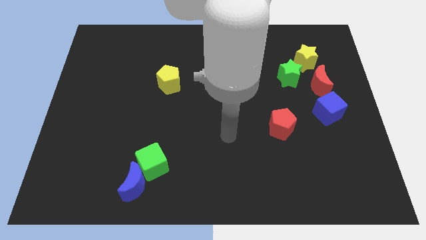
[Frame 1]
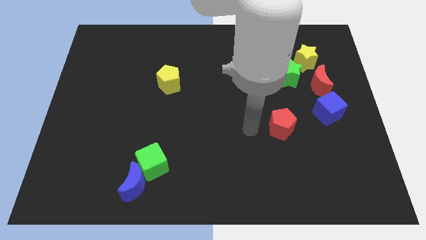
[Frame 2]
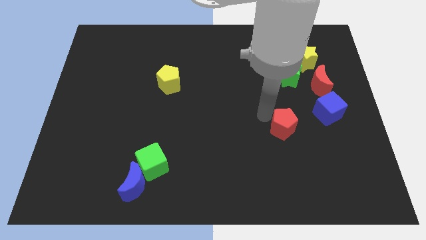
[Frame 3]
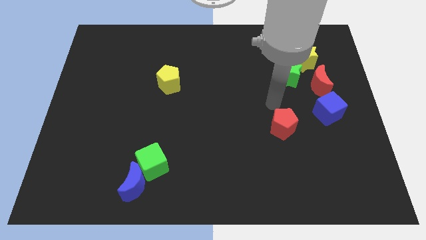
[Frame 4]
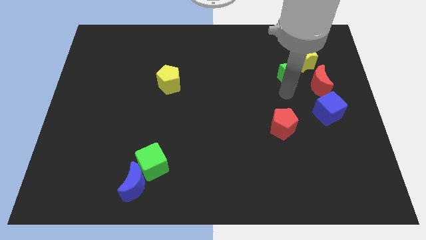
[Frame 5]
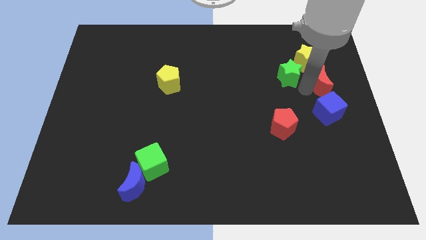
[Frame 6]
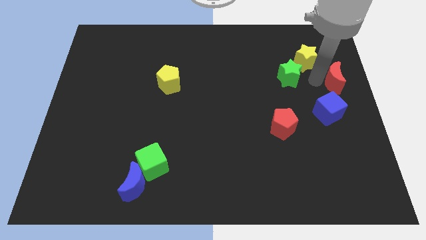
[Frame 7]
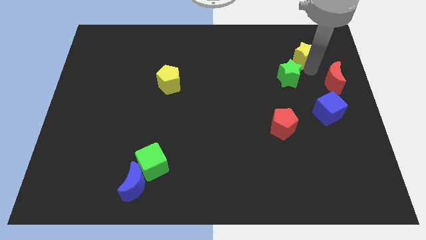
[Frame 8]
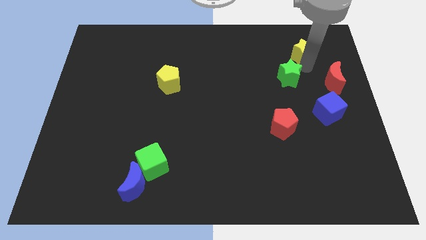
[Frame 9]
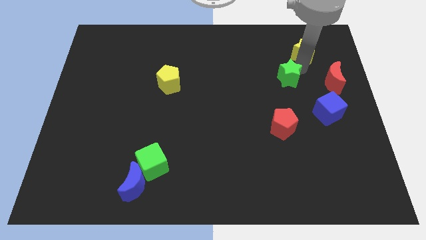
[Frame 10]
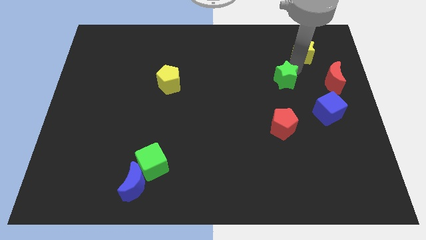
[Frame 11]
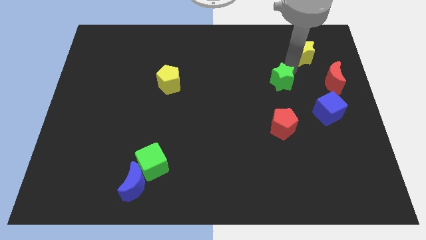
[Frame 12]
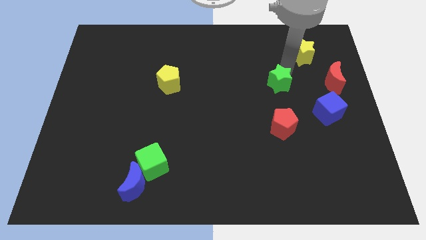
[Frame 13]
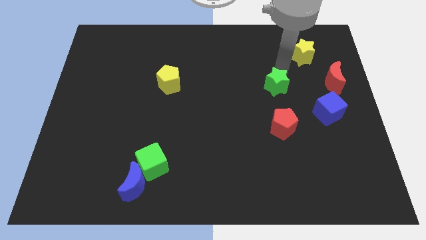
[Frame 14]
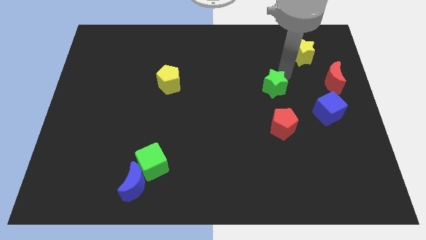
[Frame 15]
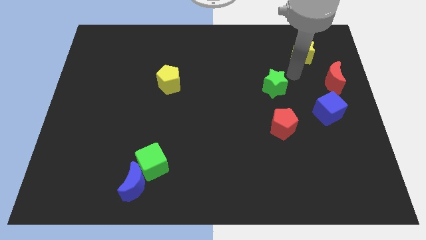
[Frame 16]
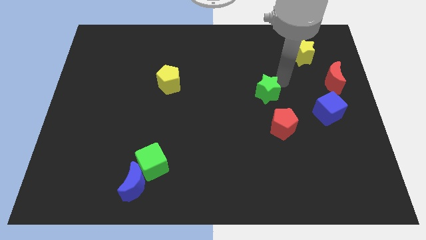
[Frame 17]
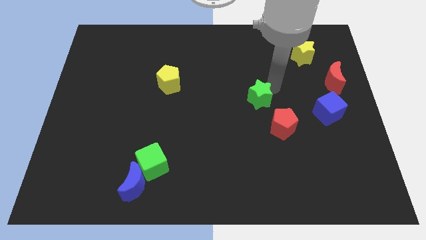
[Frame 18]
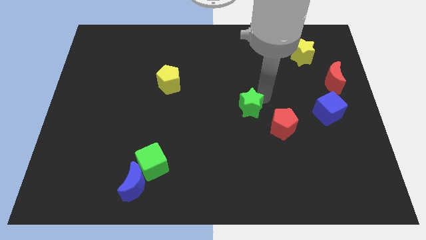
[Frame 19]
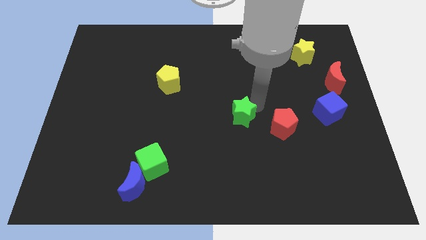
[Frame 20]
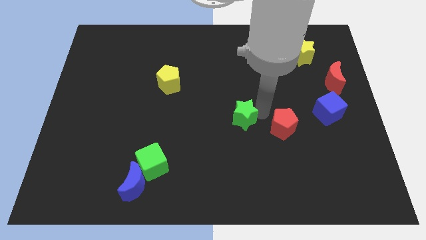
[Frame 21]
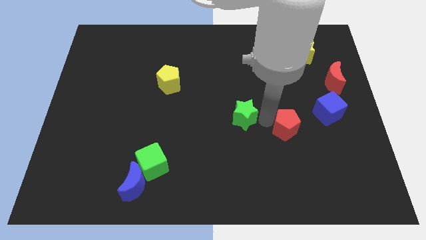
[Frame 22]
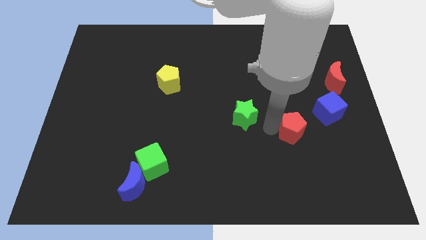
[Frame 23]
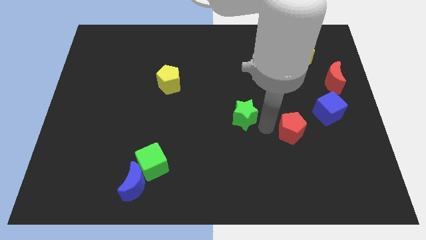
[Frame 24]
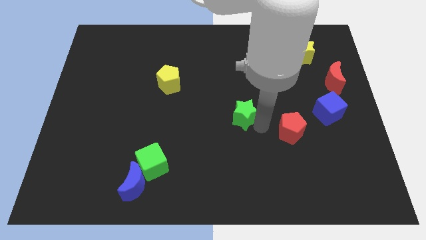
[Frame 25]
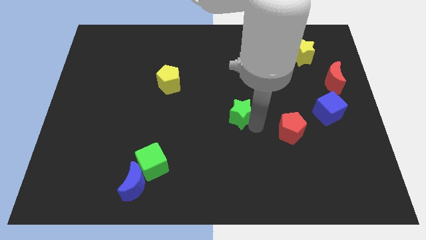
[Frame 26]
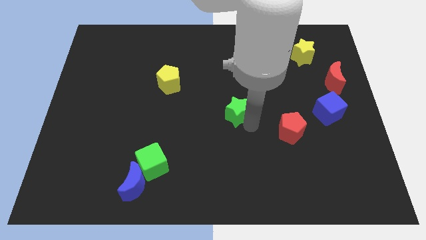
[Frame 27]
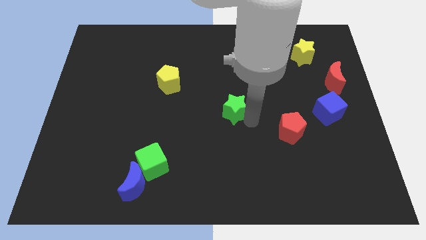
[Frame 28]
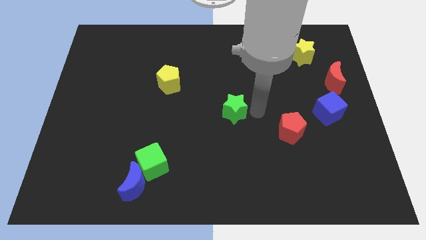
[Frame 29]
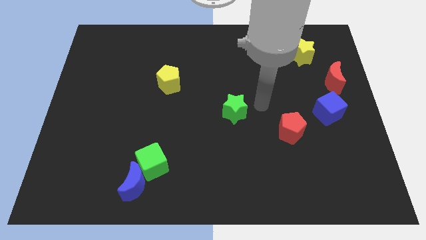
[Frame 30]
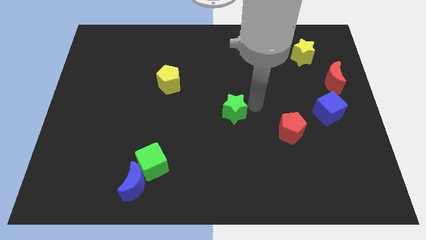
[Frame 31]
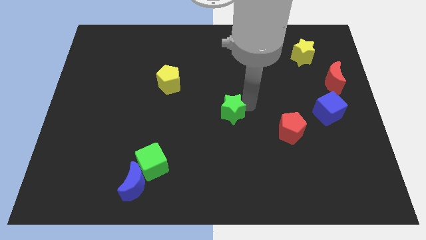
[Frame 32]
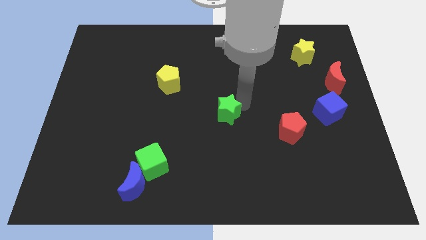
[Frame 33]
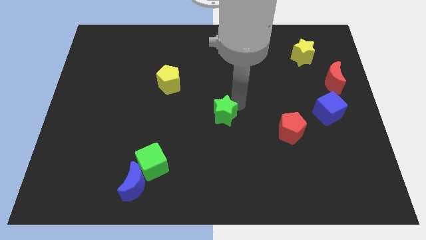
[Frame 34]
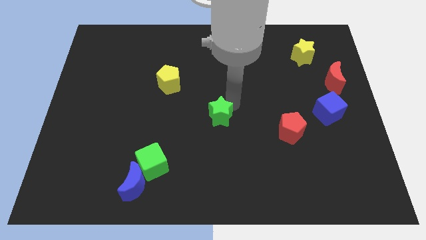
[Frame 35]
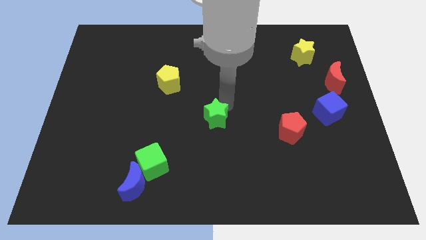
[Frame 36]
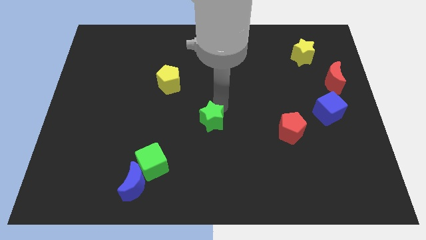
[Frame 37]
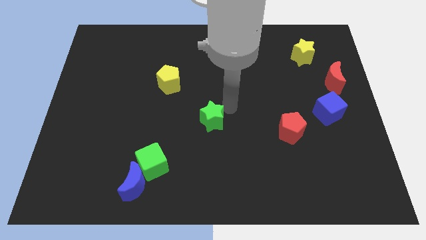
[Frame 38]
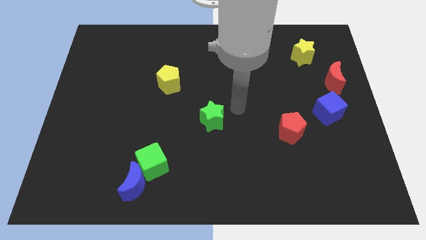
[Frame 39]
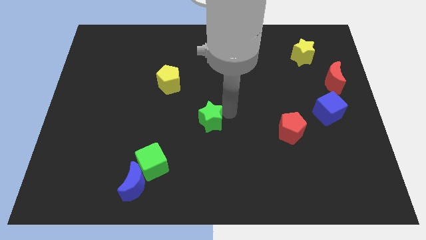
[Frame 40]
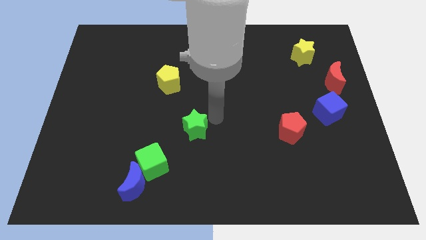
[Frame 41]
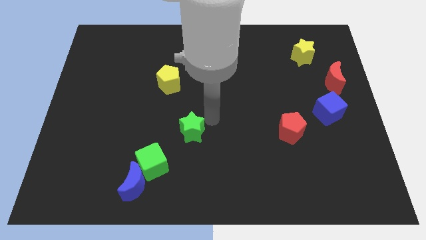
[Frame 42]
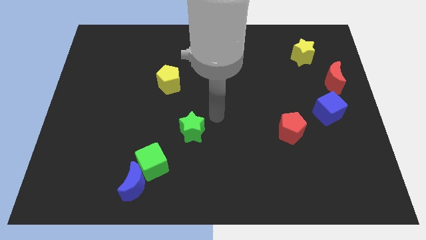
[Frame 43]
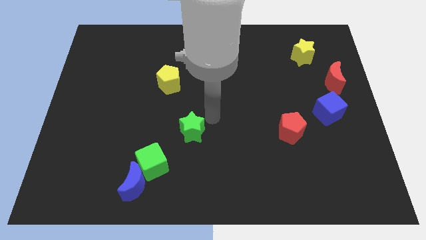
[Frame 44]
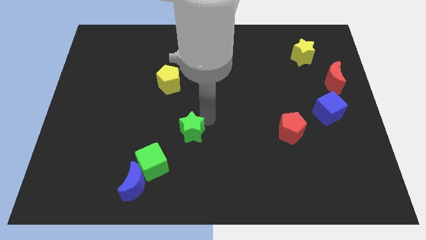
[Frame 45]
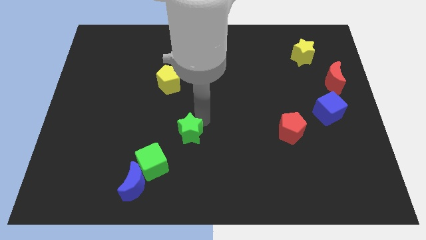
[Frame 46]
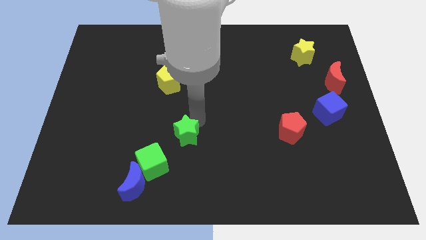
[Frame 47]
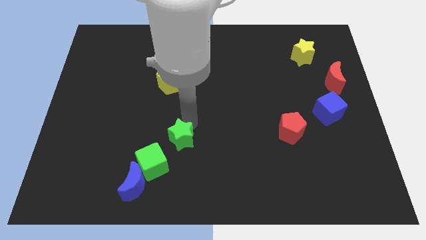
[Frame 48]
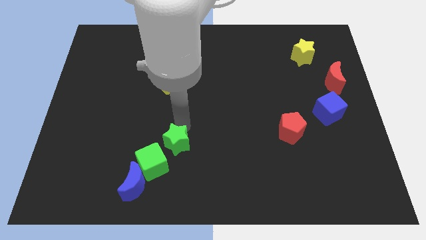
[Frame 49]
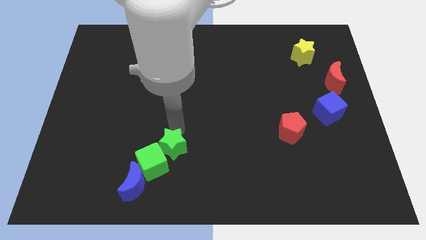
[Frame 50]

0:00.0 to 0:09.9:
put the green star next to the green cube

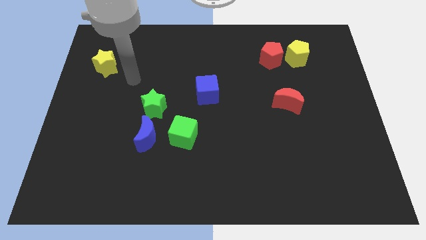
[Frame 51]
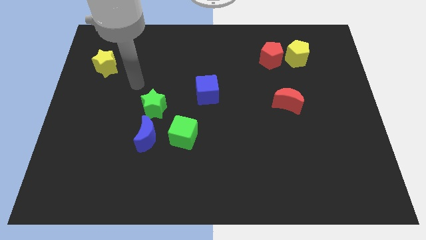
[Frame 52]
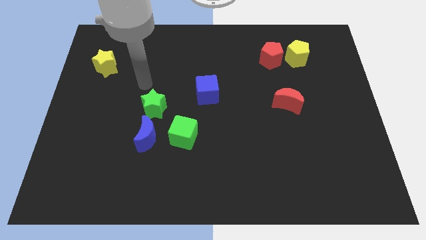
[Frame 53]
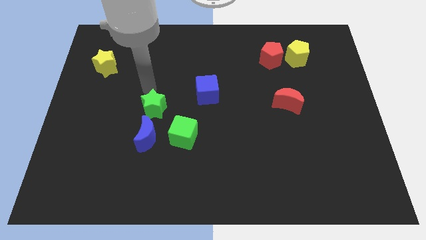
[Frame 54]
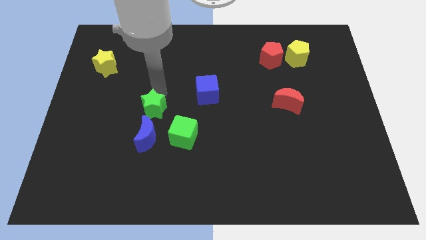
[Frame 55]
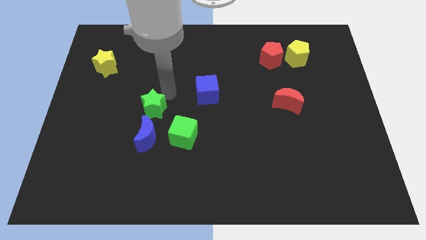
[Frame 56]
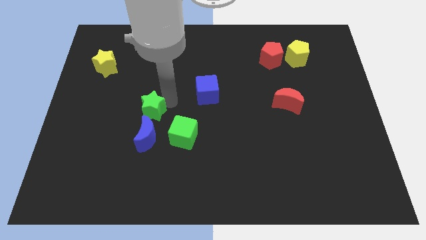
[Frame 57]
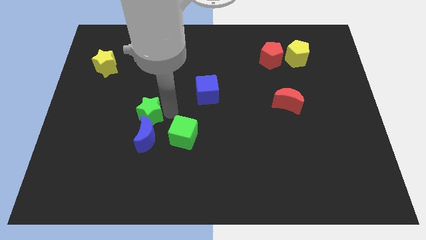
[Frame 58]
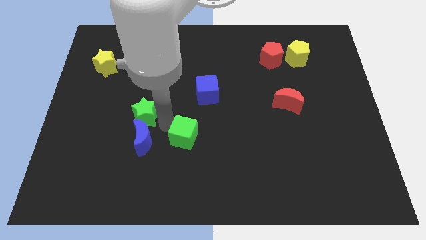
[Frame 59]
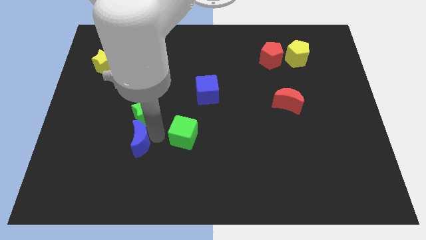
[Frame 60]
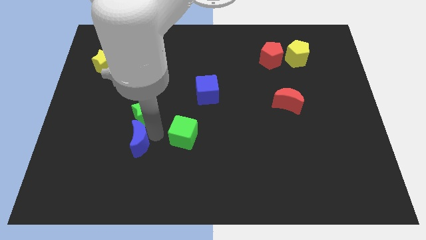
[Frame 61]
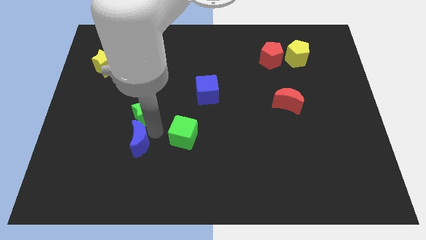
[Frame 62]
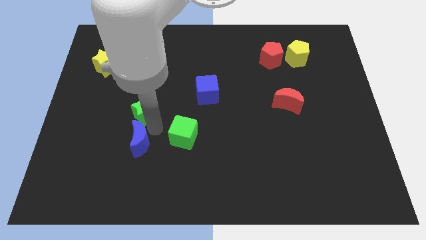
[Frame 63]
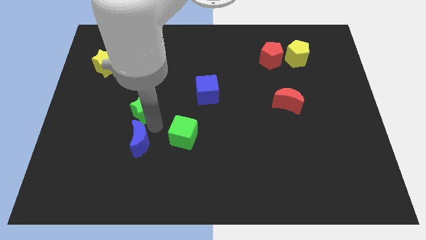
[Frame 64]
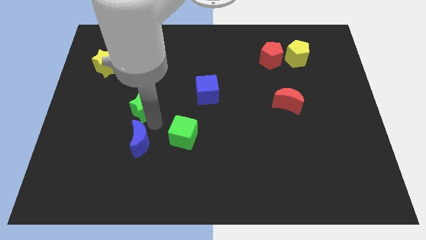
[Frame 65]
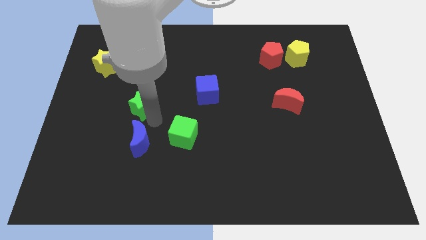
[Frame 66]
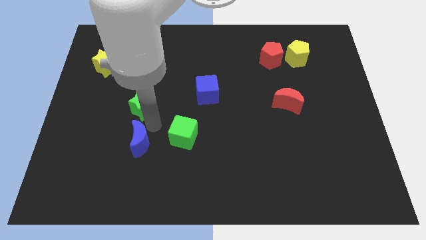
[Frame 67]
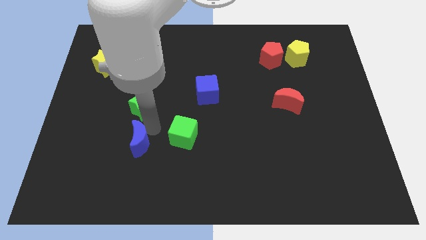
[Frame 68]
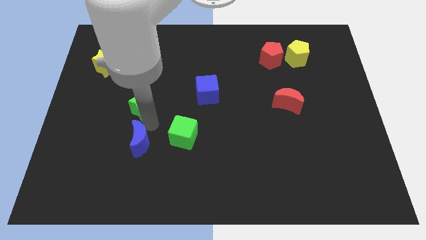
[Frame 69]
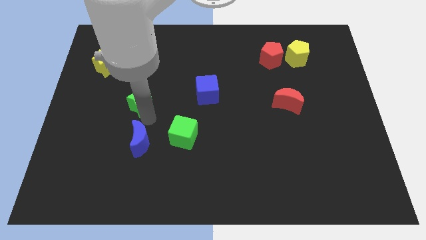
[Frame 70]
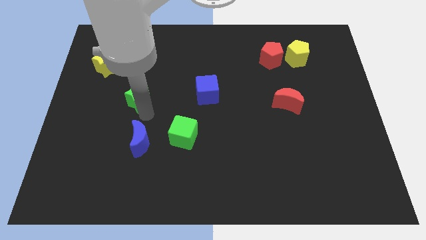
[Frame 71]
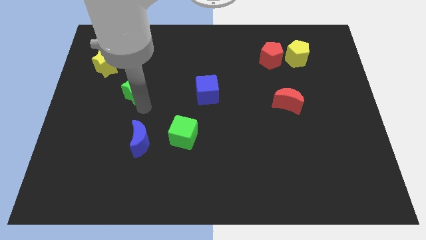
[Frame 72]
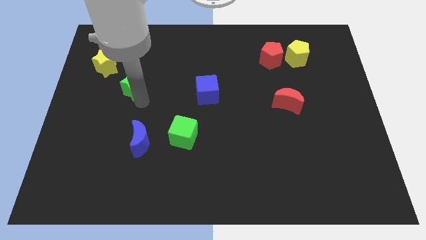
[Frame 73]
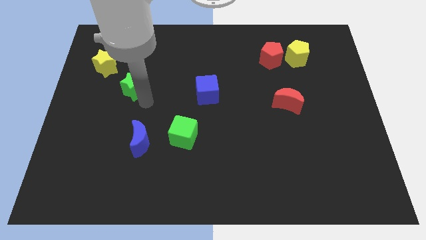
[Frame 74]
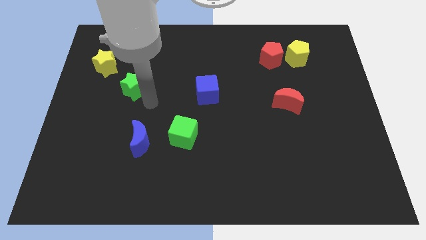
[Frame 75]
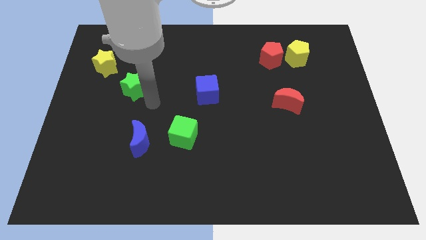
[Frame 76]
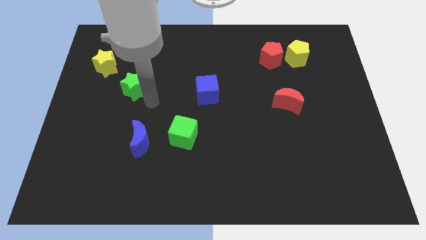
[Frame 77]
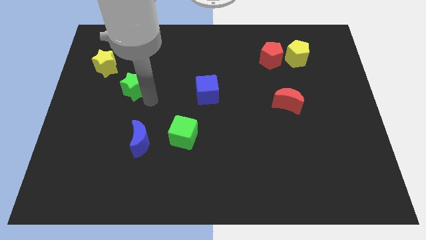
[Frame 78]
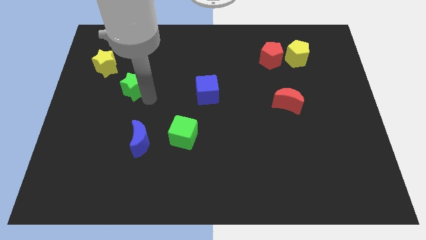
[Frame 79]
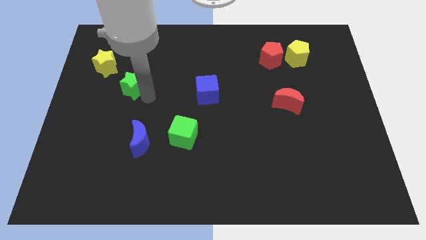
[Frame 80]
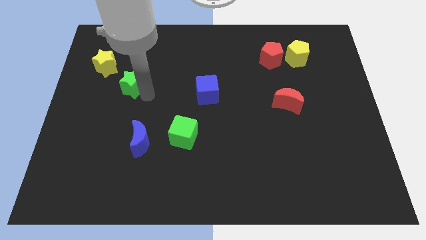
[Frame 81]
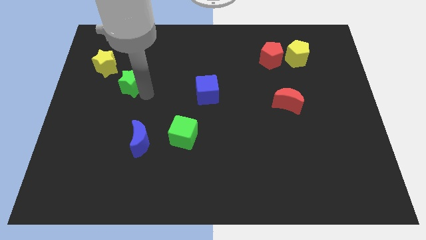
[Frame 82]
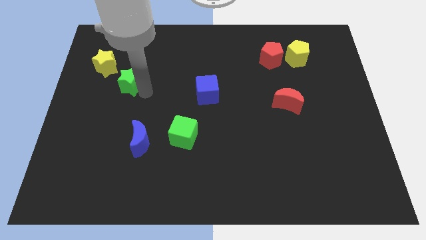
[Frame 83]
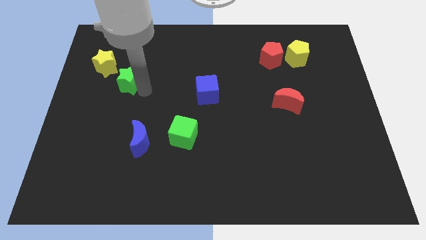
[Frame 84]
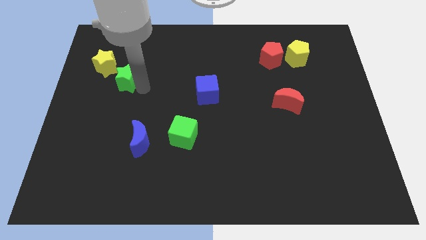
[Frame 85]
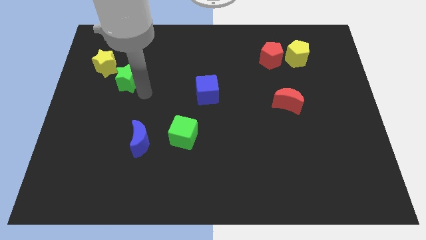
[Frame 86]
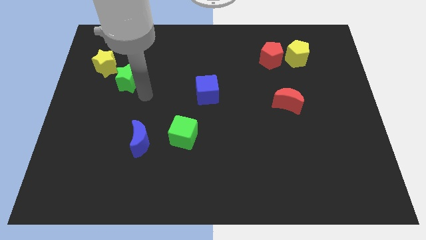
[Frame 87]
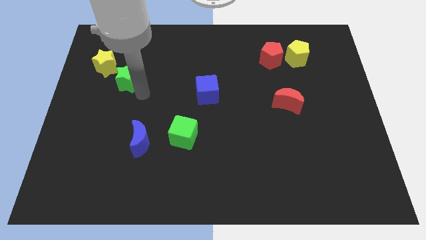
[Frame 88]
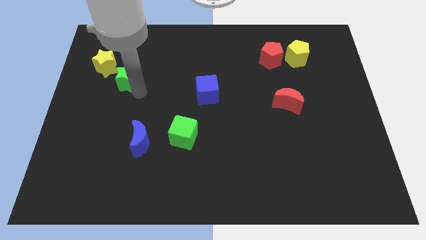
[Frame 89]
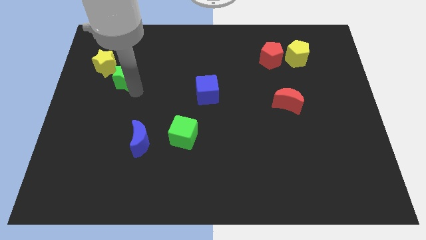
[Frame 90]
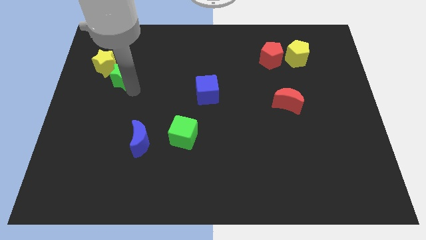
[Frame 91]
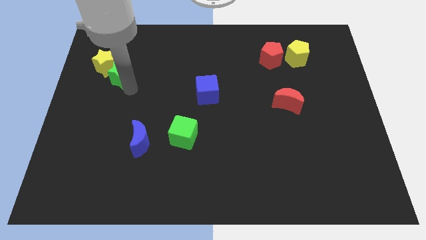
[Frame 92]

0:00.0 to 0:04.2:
slide the green star towards the yellow star
